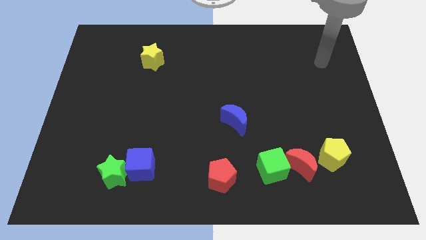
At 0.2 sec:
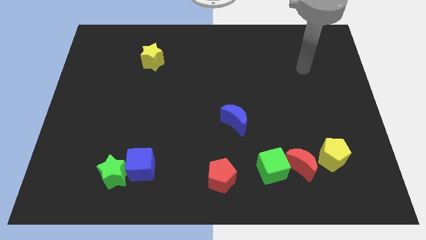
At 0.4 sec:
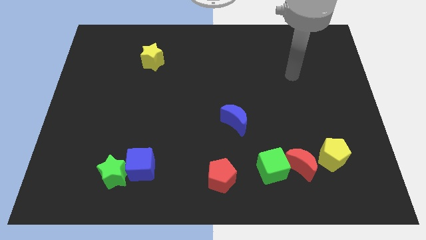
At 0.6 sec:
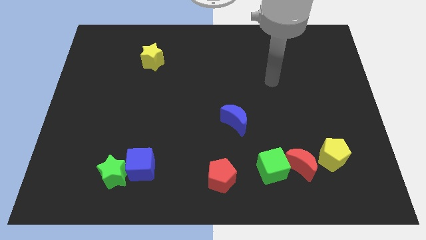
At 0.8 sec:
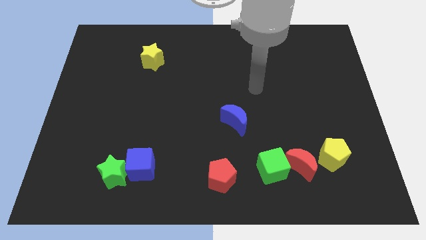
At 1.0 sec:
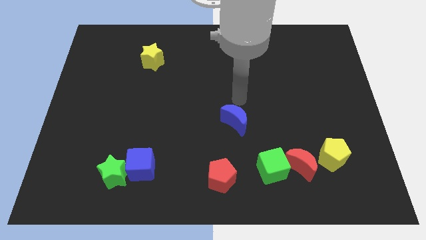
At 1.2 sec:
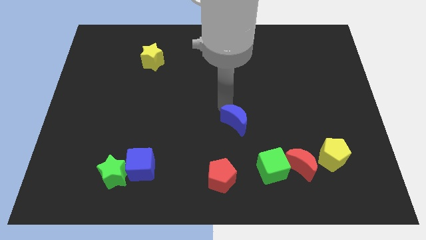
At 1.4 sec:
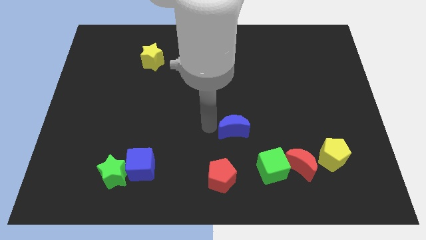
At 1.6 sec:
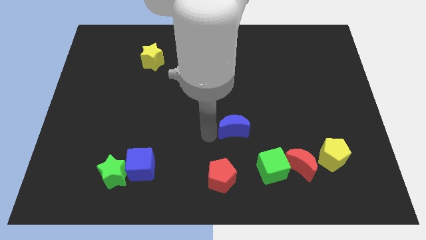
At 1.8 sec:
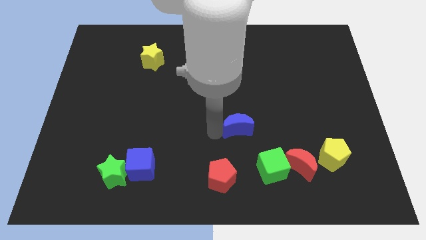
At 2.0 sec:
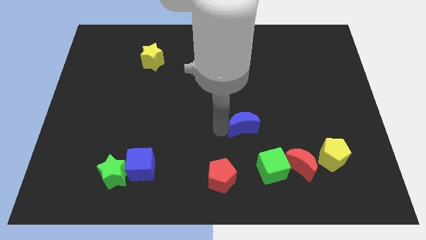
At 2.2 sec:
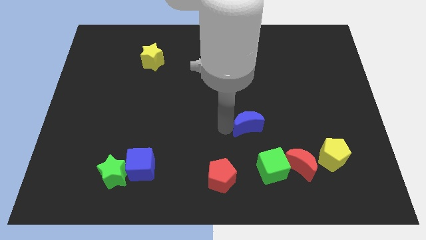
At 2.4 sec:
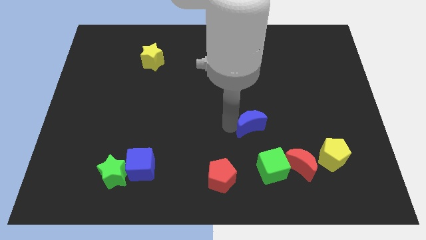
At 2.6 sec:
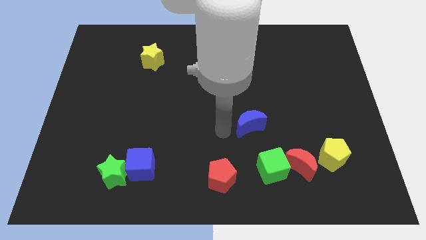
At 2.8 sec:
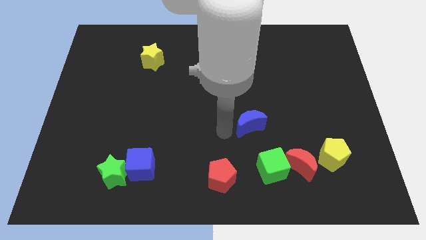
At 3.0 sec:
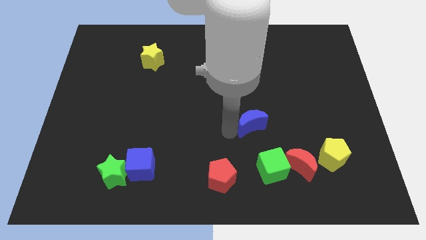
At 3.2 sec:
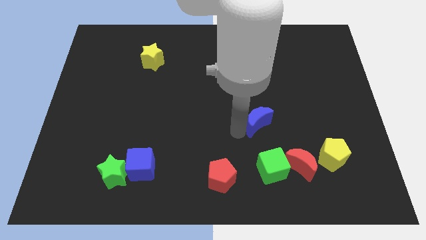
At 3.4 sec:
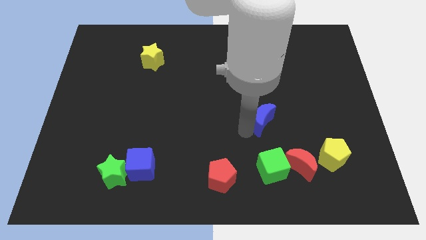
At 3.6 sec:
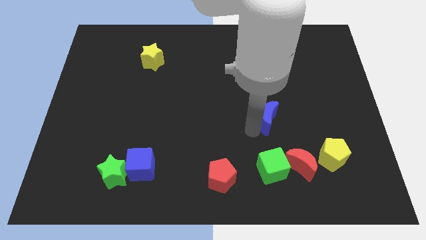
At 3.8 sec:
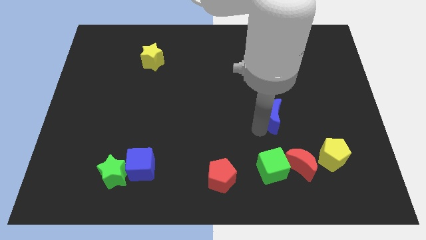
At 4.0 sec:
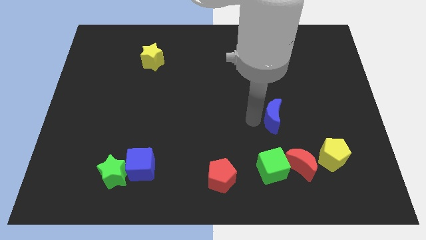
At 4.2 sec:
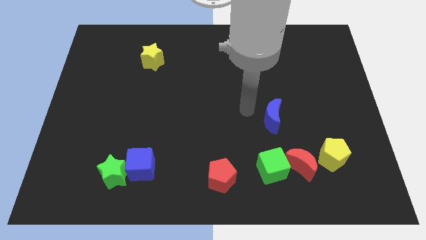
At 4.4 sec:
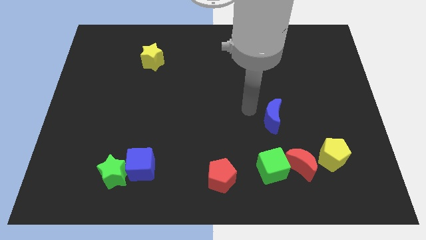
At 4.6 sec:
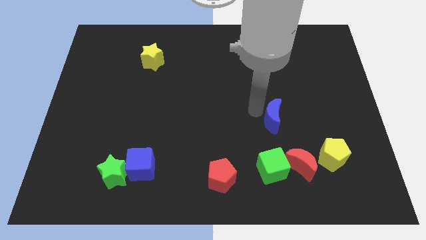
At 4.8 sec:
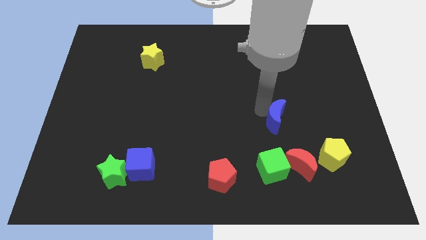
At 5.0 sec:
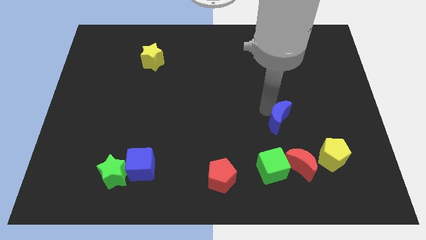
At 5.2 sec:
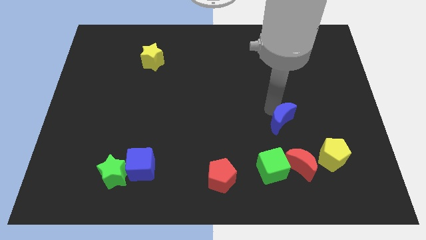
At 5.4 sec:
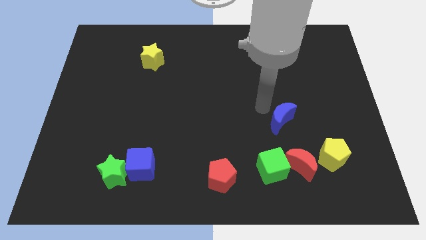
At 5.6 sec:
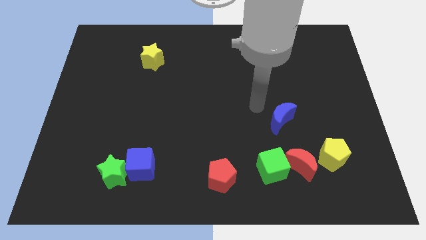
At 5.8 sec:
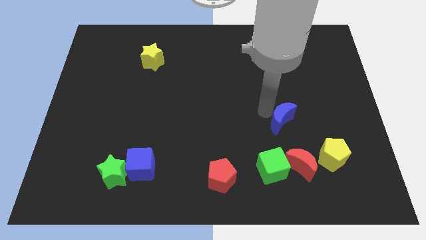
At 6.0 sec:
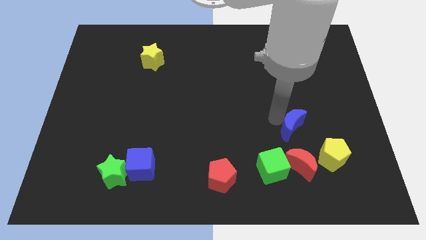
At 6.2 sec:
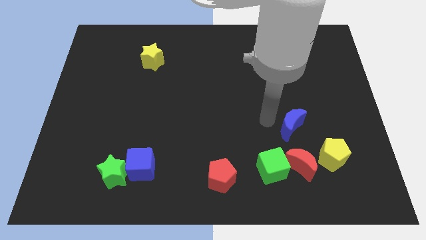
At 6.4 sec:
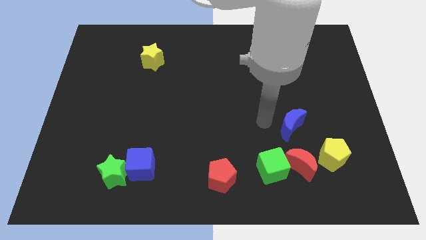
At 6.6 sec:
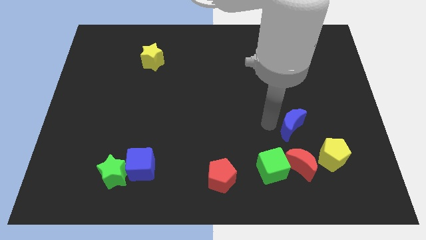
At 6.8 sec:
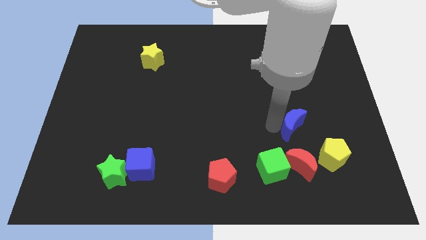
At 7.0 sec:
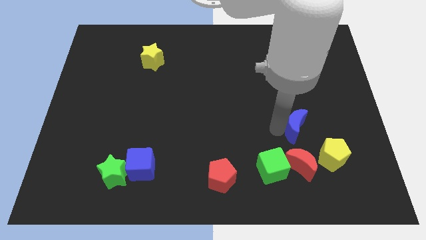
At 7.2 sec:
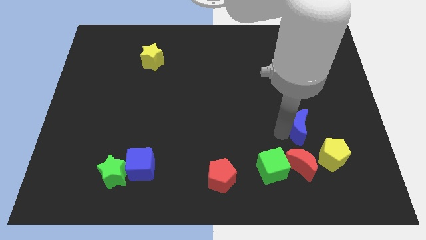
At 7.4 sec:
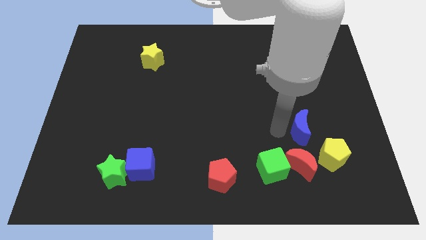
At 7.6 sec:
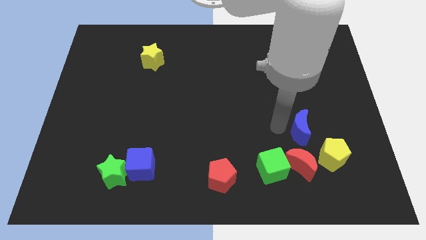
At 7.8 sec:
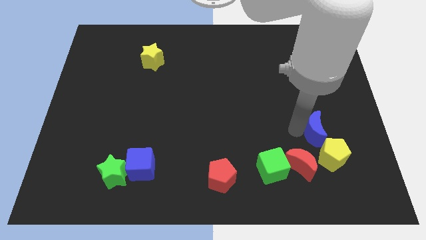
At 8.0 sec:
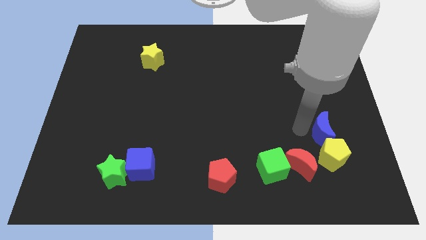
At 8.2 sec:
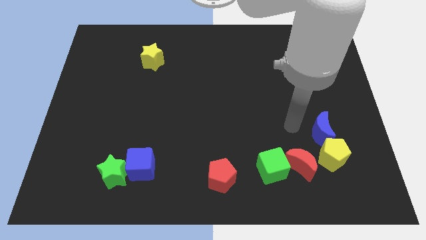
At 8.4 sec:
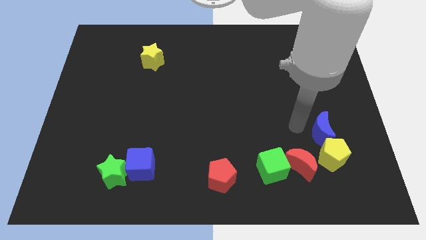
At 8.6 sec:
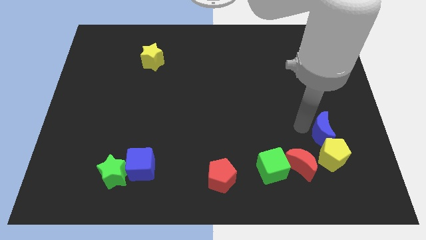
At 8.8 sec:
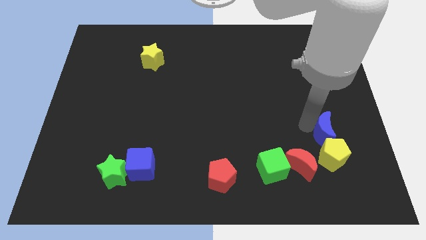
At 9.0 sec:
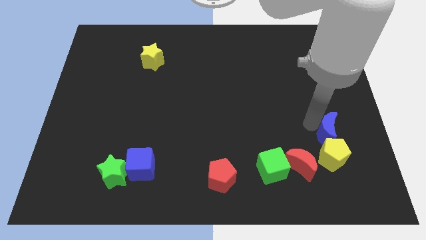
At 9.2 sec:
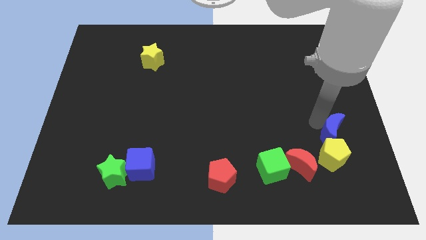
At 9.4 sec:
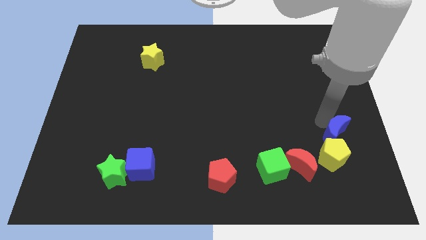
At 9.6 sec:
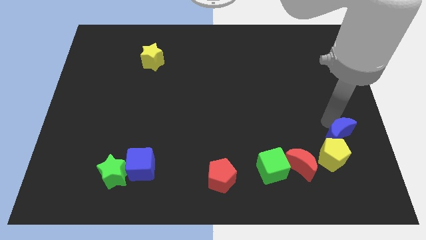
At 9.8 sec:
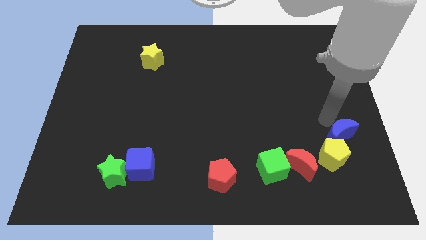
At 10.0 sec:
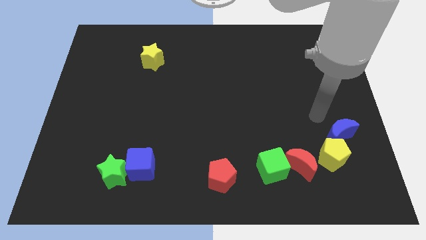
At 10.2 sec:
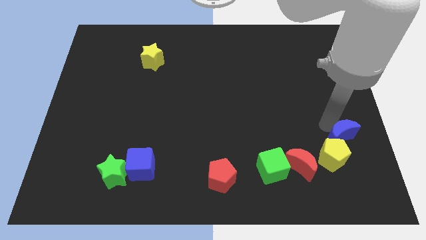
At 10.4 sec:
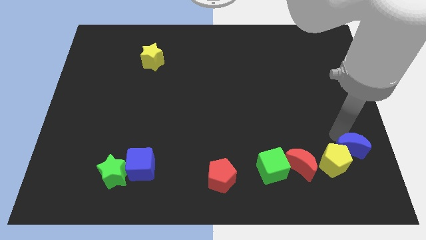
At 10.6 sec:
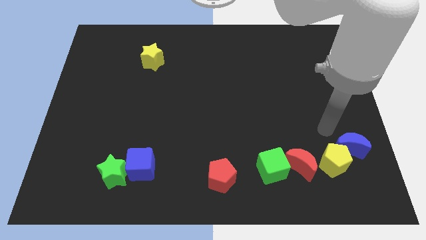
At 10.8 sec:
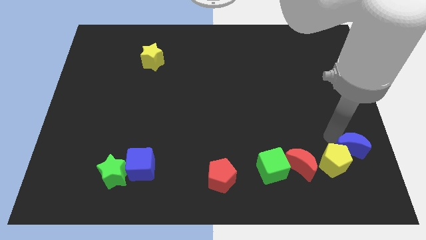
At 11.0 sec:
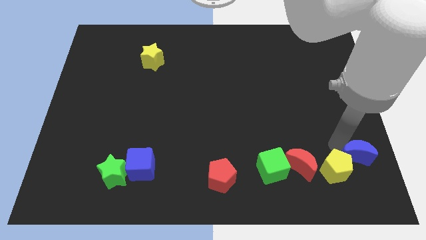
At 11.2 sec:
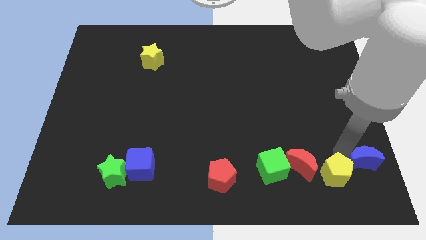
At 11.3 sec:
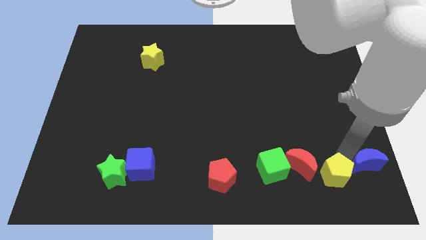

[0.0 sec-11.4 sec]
move the blue moon to the bottom right corner
